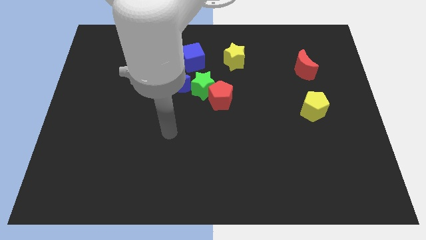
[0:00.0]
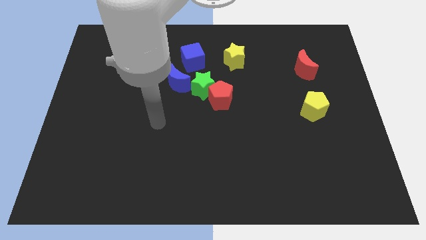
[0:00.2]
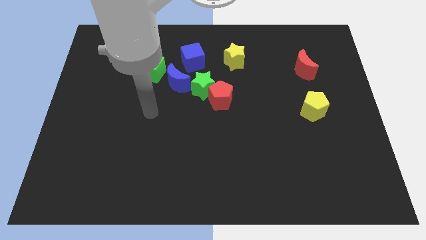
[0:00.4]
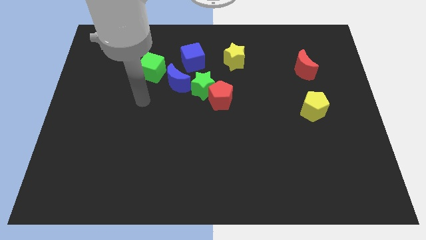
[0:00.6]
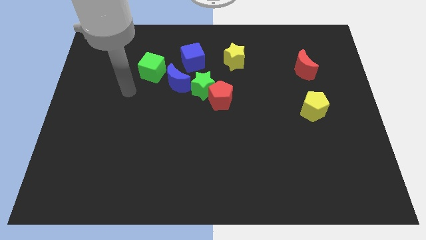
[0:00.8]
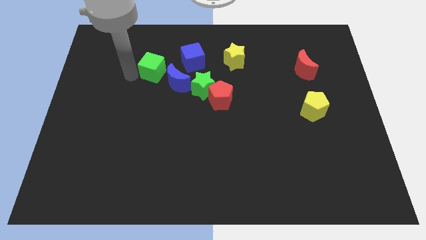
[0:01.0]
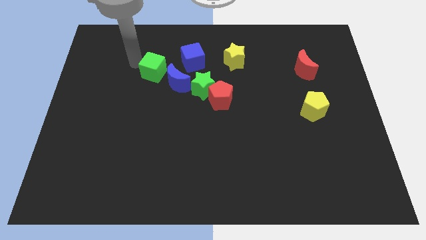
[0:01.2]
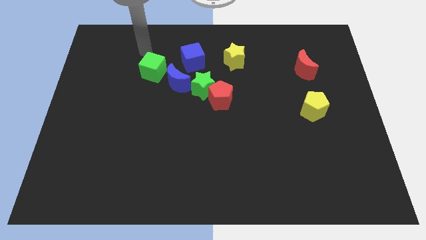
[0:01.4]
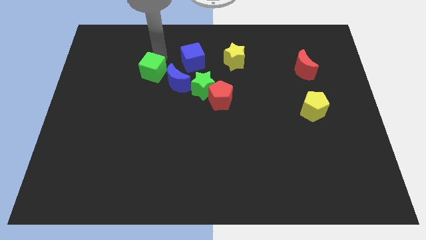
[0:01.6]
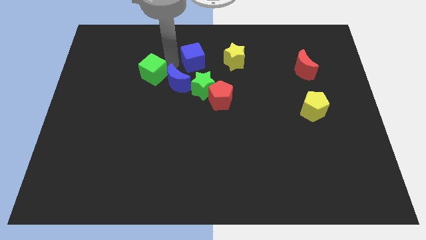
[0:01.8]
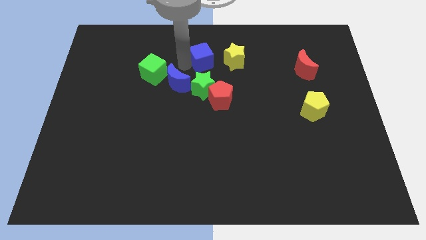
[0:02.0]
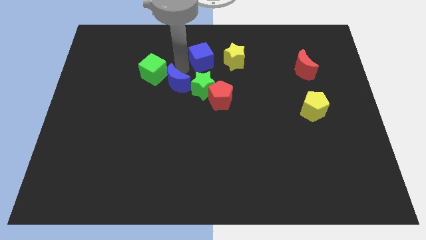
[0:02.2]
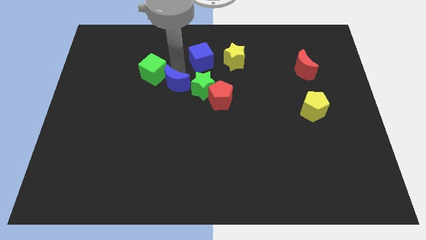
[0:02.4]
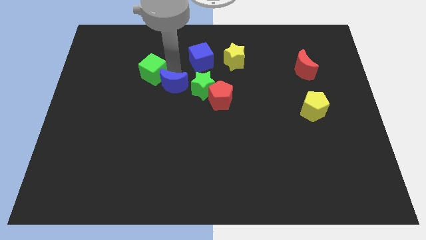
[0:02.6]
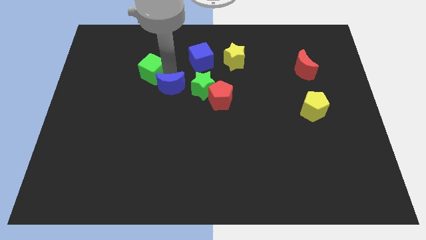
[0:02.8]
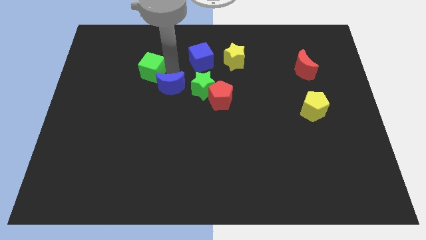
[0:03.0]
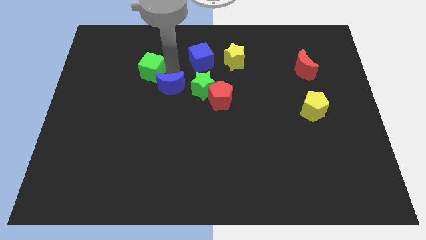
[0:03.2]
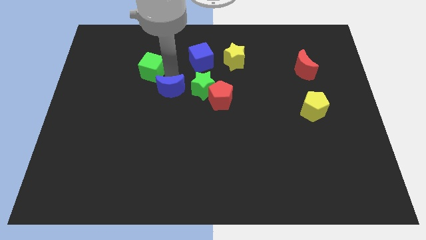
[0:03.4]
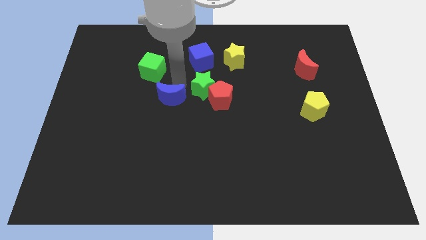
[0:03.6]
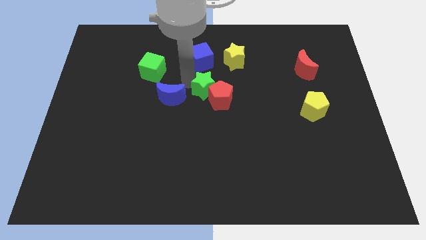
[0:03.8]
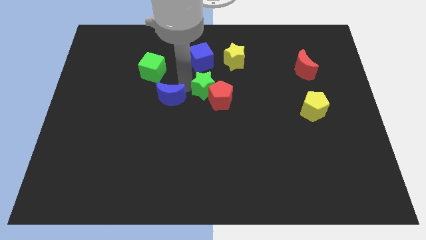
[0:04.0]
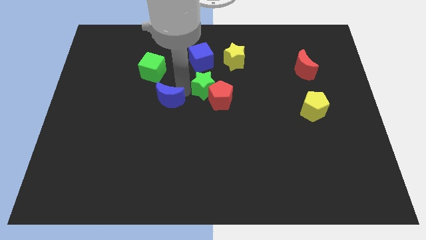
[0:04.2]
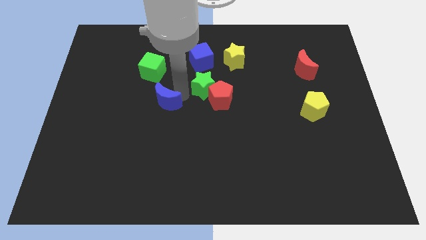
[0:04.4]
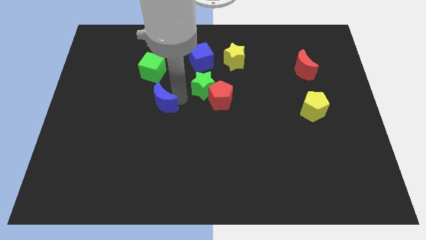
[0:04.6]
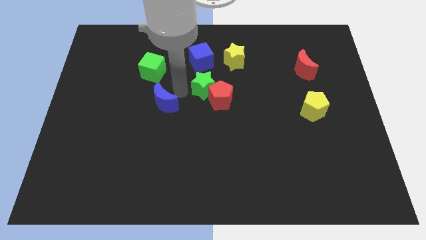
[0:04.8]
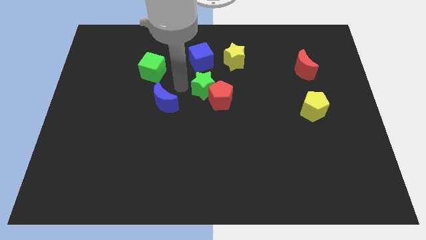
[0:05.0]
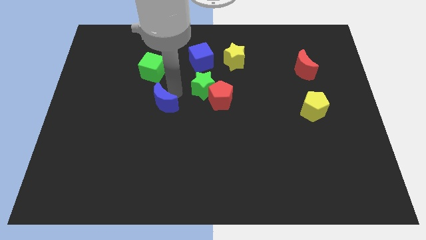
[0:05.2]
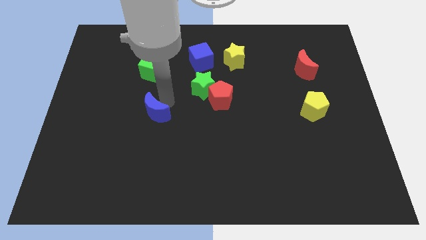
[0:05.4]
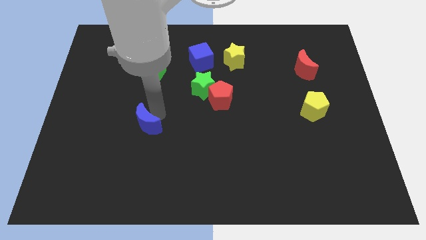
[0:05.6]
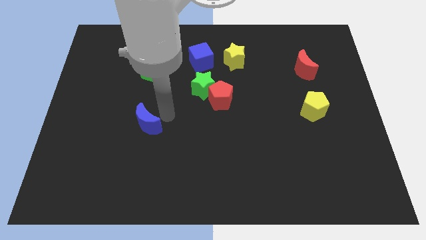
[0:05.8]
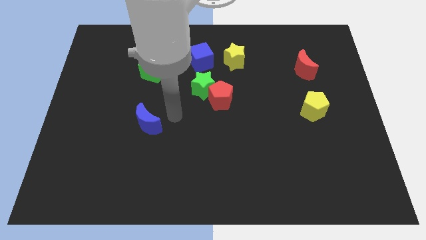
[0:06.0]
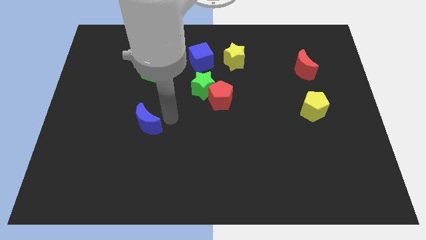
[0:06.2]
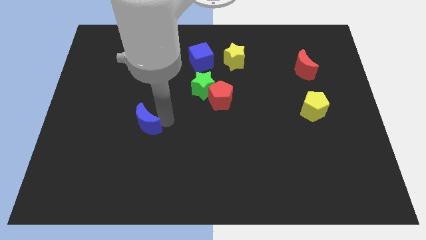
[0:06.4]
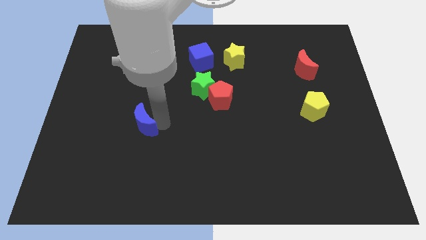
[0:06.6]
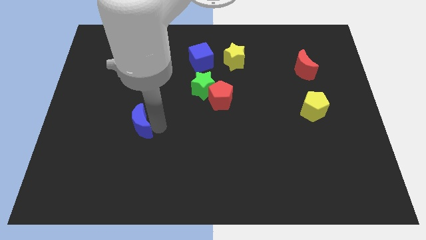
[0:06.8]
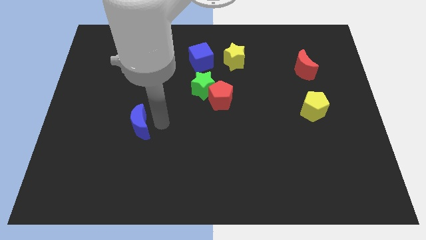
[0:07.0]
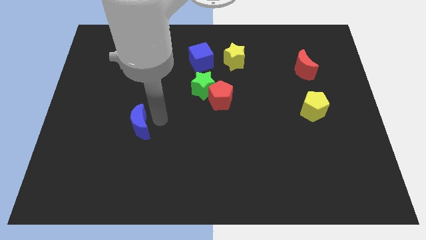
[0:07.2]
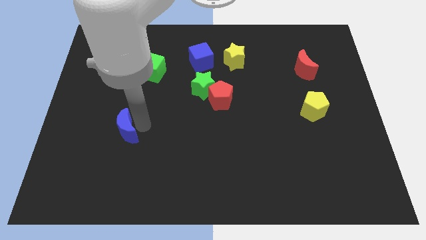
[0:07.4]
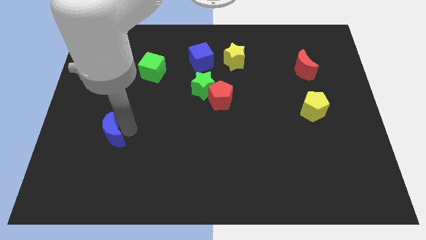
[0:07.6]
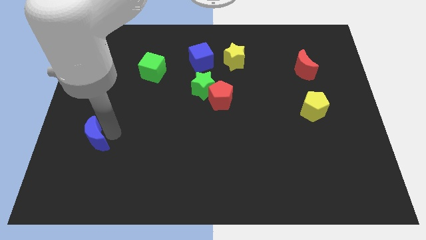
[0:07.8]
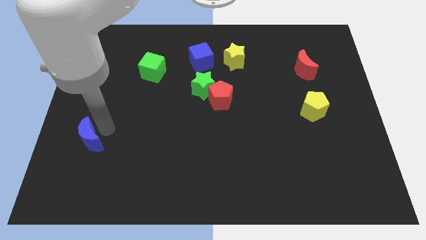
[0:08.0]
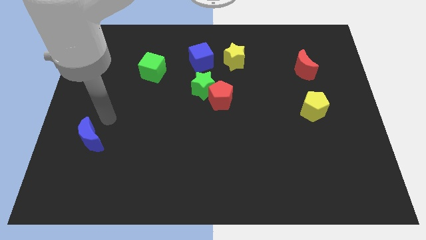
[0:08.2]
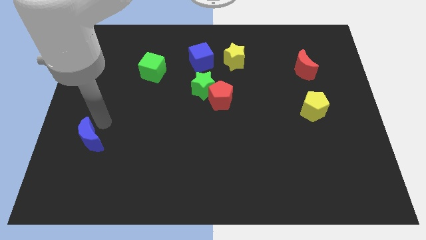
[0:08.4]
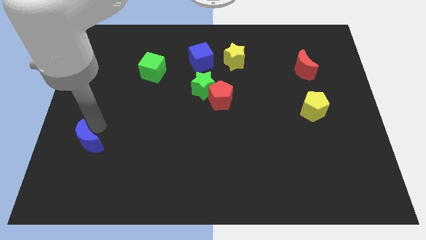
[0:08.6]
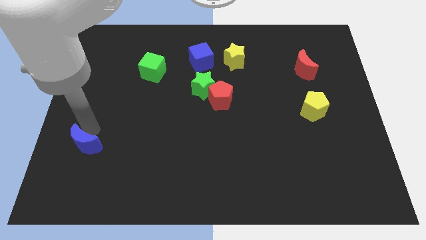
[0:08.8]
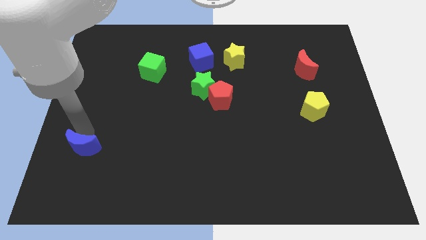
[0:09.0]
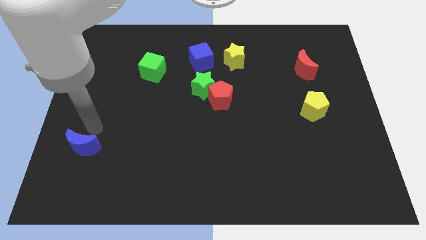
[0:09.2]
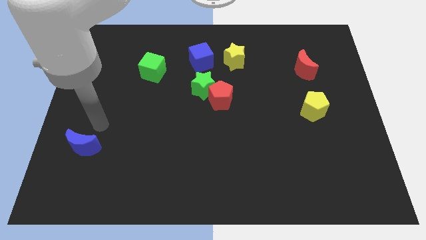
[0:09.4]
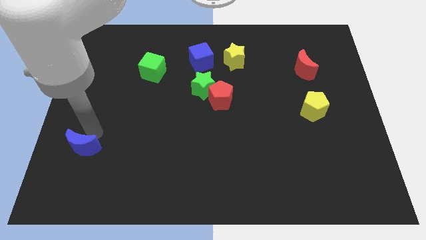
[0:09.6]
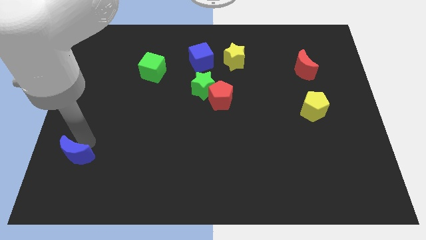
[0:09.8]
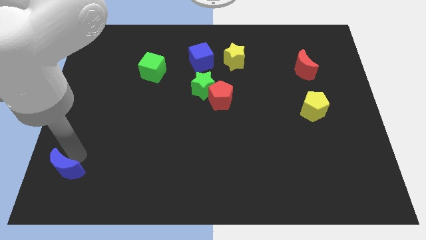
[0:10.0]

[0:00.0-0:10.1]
slide the blue moon to the lower left corner
